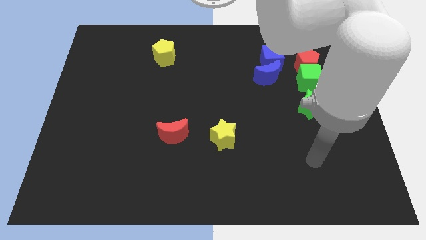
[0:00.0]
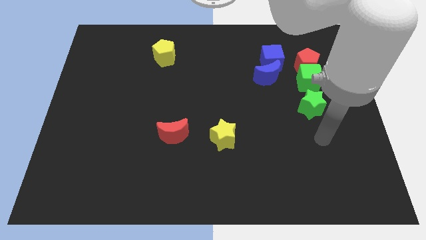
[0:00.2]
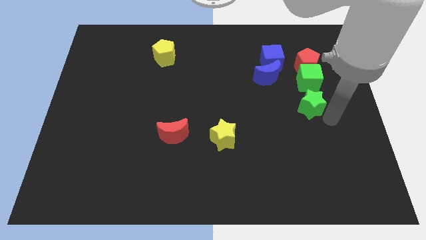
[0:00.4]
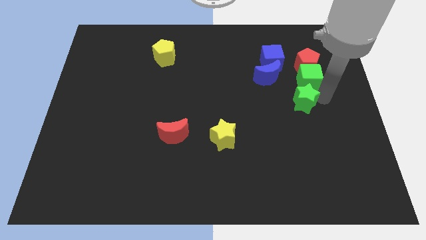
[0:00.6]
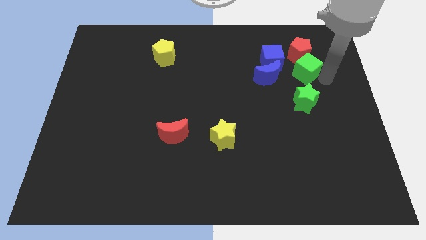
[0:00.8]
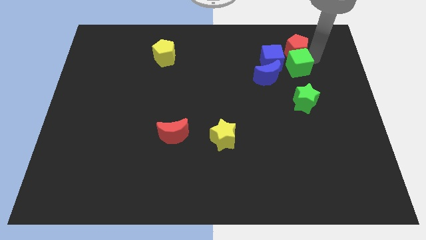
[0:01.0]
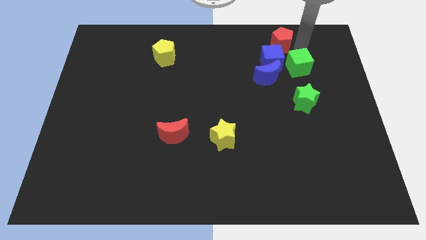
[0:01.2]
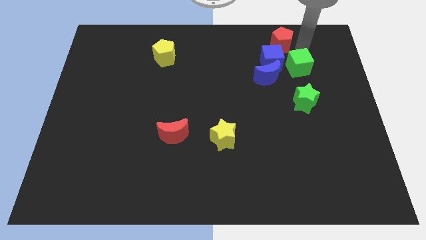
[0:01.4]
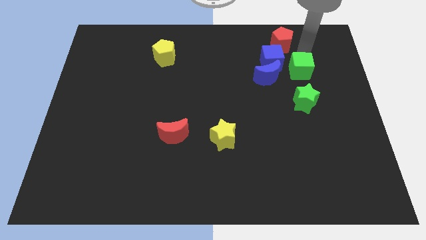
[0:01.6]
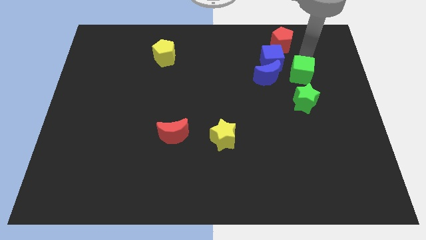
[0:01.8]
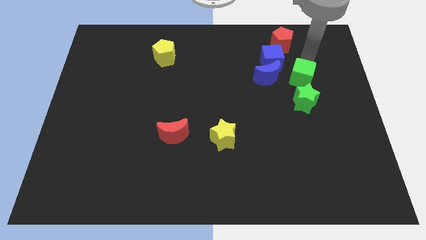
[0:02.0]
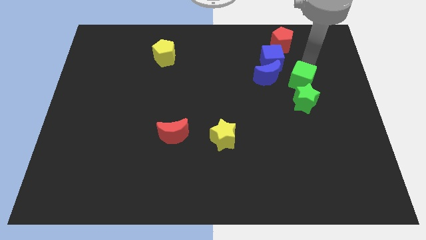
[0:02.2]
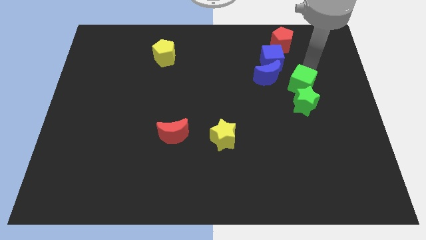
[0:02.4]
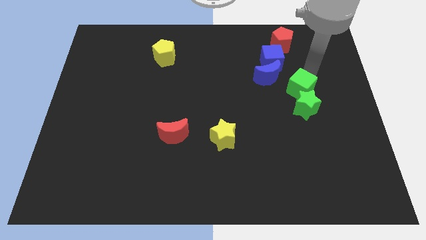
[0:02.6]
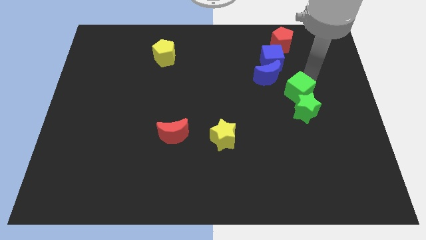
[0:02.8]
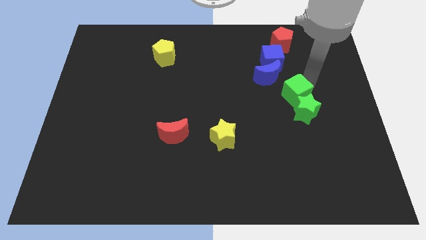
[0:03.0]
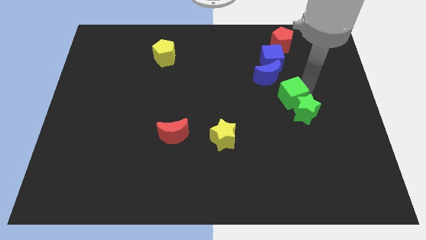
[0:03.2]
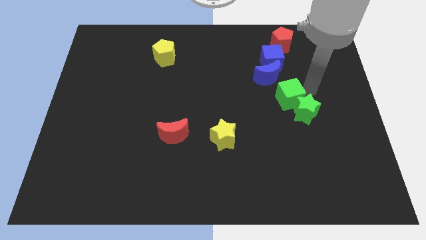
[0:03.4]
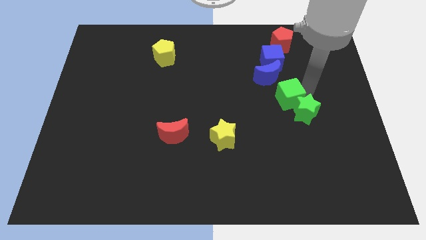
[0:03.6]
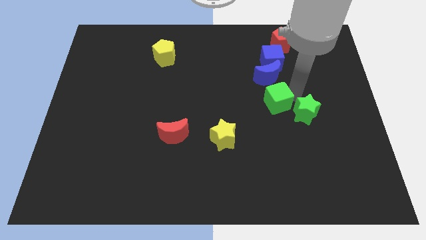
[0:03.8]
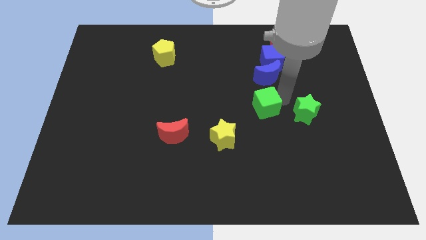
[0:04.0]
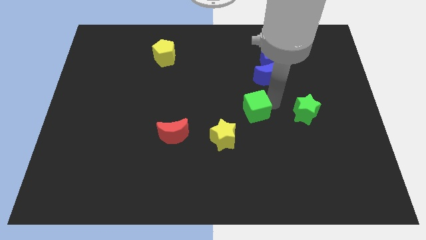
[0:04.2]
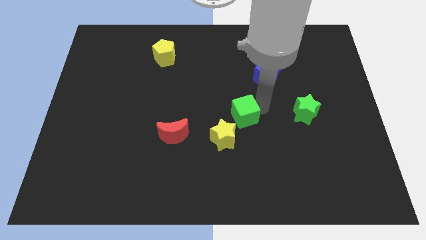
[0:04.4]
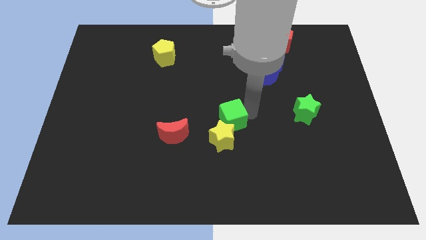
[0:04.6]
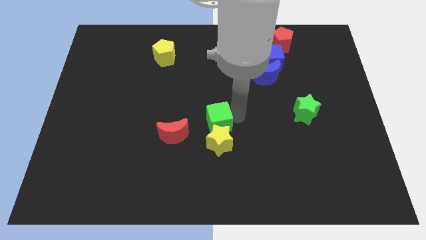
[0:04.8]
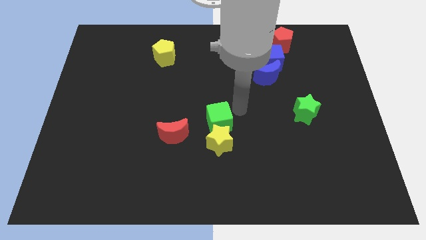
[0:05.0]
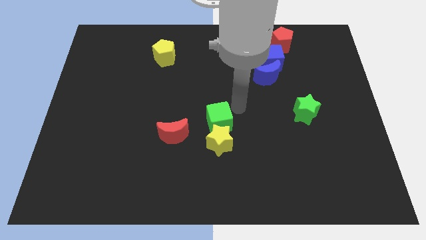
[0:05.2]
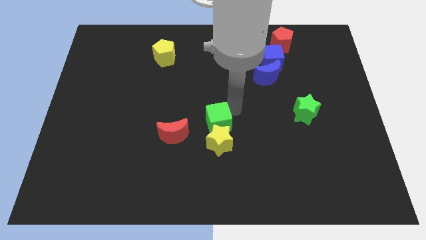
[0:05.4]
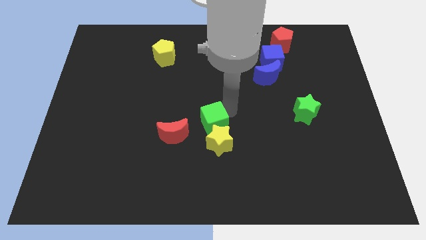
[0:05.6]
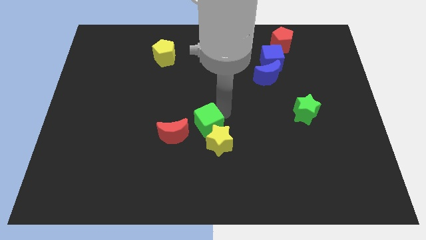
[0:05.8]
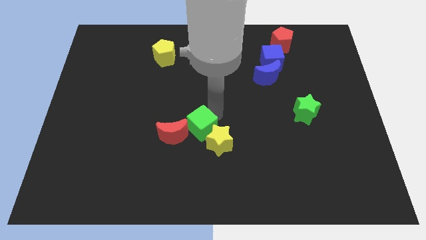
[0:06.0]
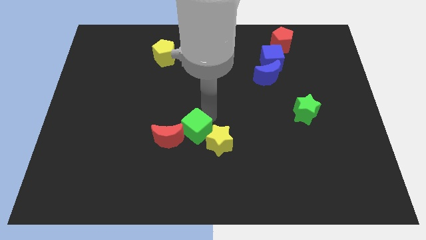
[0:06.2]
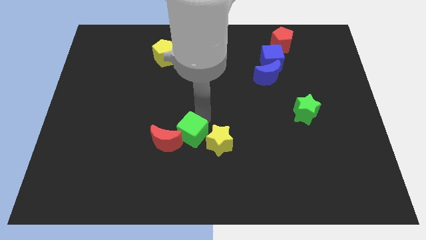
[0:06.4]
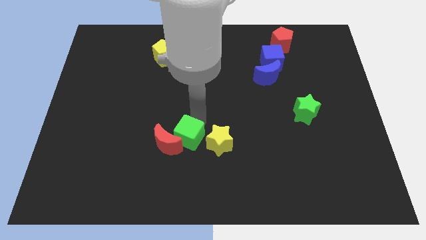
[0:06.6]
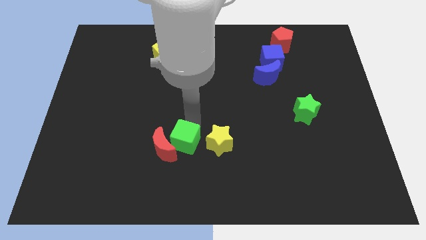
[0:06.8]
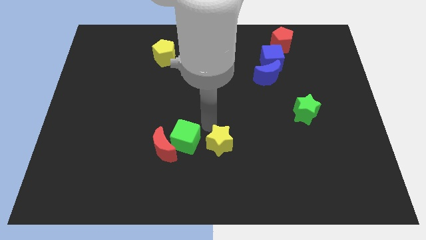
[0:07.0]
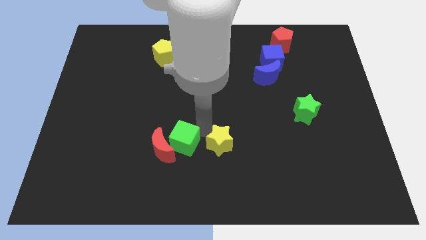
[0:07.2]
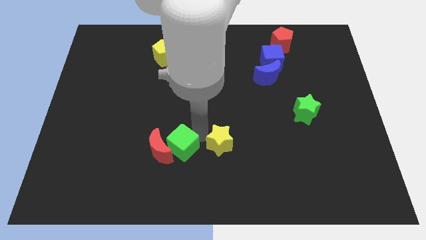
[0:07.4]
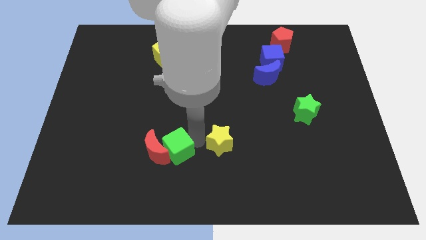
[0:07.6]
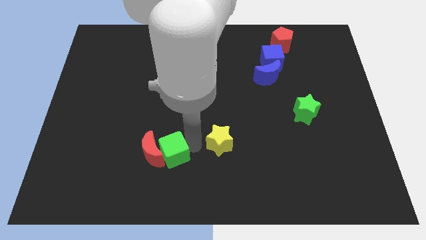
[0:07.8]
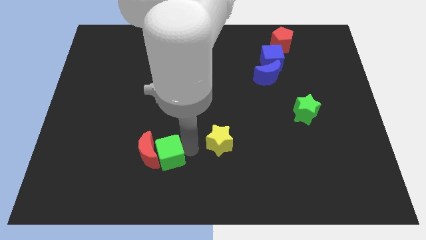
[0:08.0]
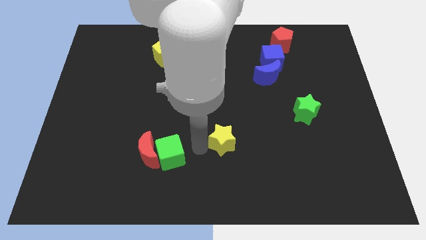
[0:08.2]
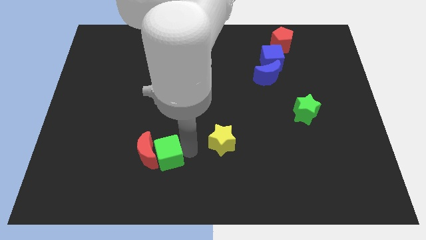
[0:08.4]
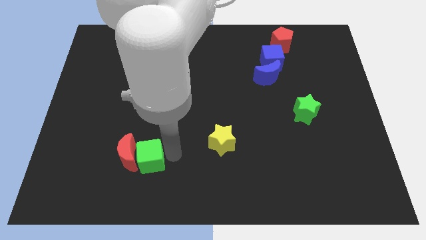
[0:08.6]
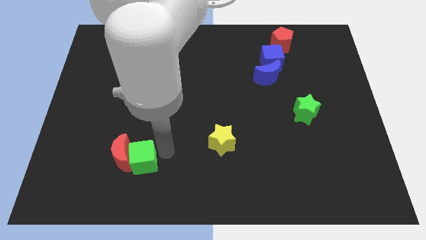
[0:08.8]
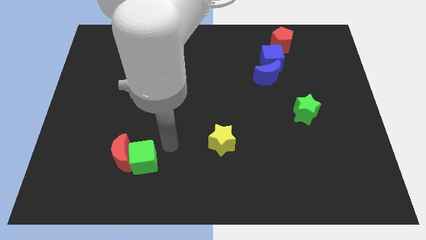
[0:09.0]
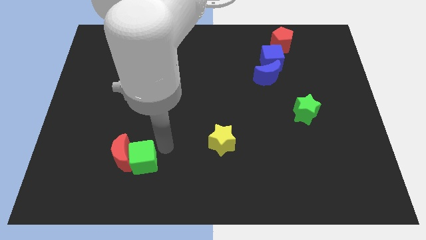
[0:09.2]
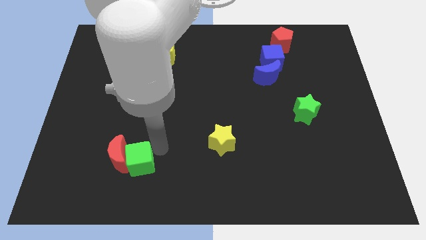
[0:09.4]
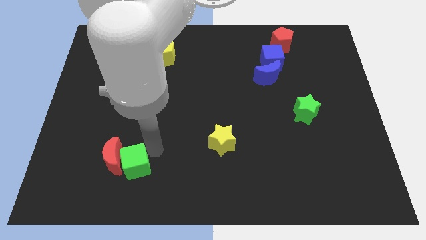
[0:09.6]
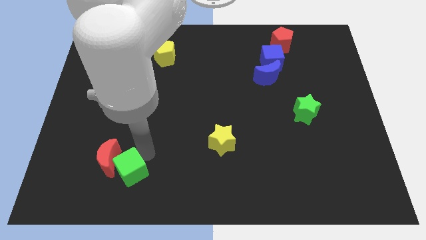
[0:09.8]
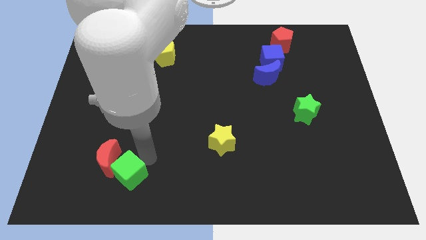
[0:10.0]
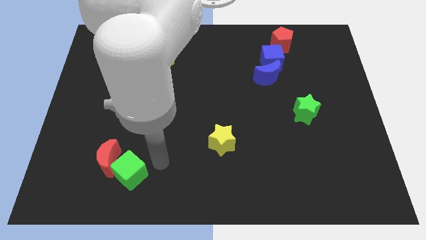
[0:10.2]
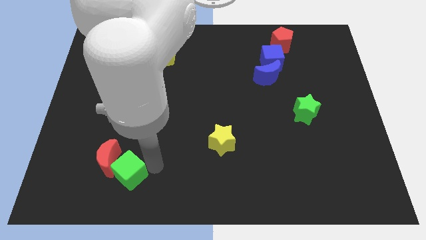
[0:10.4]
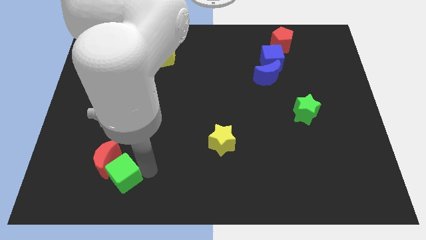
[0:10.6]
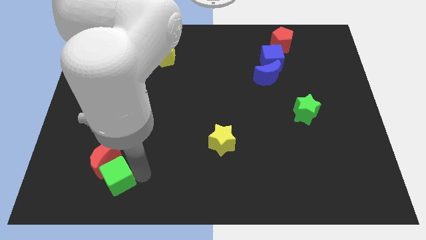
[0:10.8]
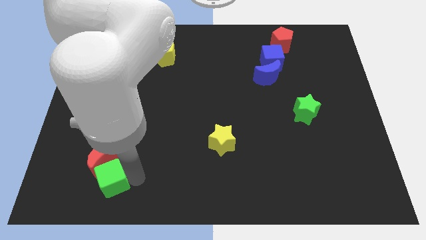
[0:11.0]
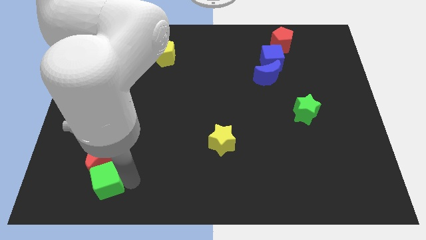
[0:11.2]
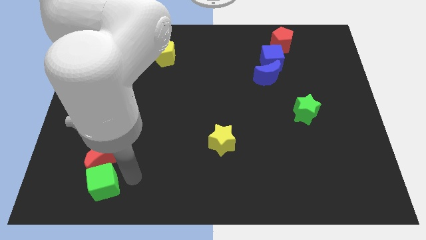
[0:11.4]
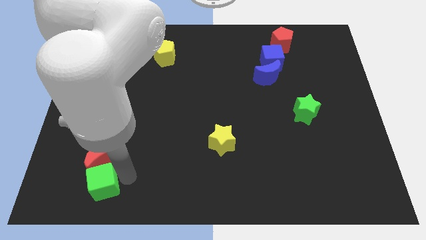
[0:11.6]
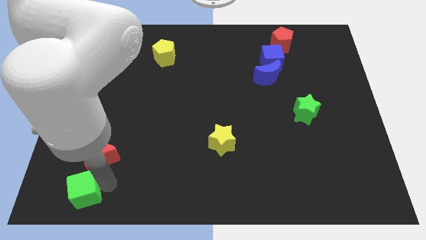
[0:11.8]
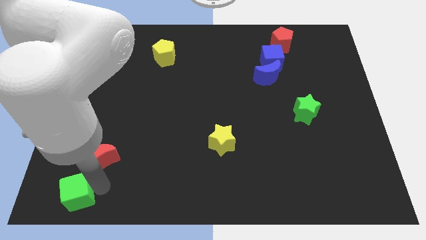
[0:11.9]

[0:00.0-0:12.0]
move the green cube to the bottom left

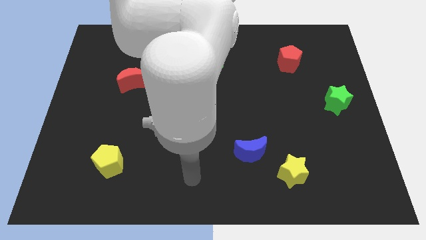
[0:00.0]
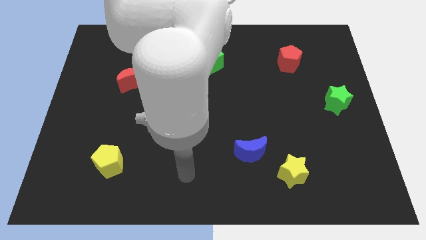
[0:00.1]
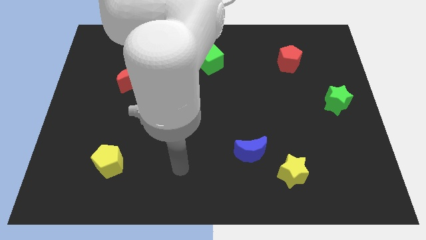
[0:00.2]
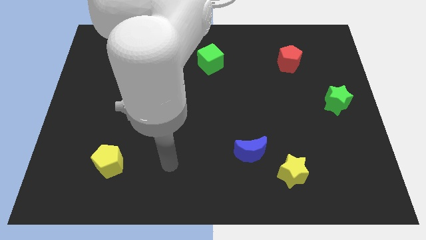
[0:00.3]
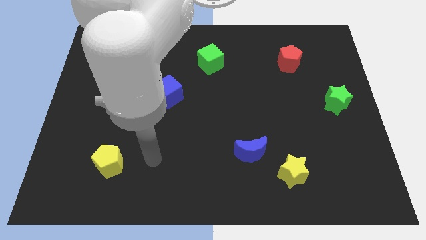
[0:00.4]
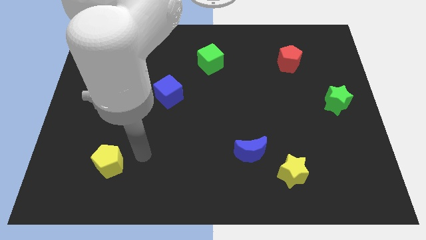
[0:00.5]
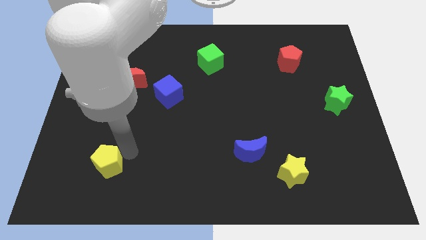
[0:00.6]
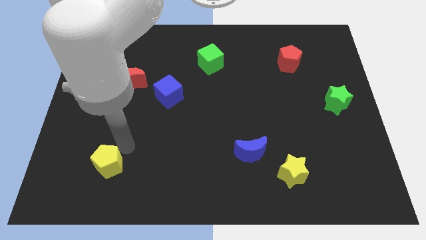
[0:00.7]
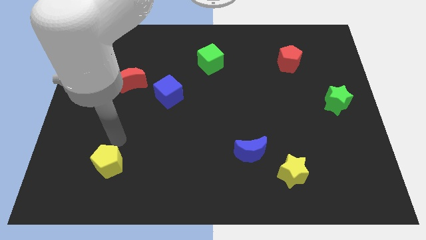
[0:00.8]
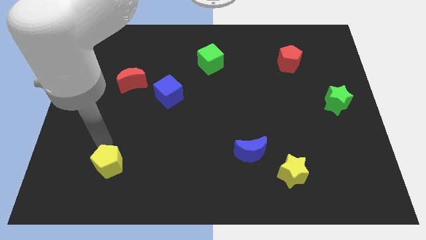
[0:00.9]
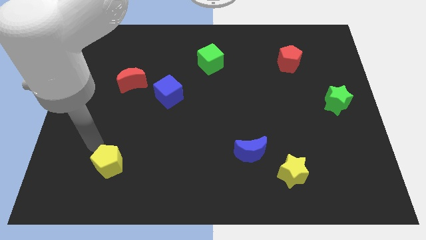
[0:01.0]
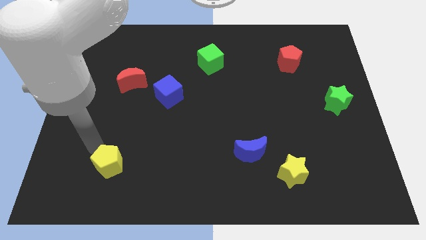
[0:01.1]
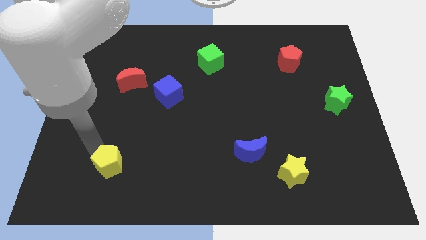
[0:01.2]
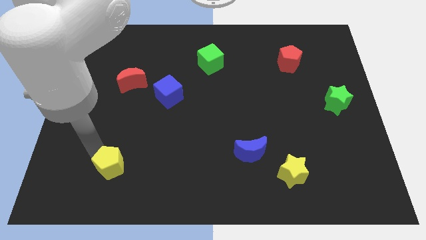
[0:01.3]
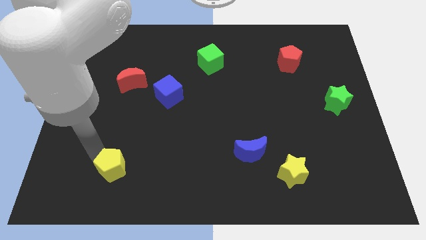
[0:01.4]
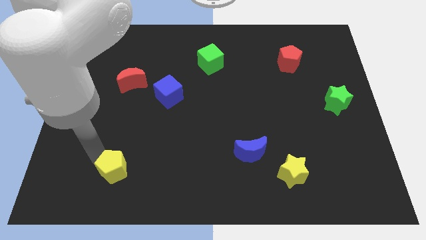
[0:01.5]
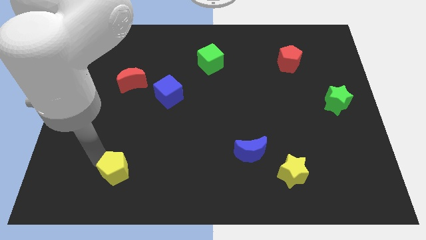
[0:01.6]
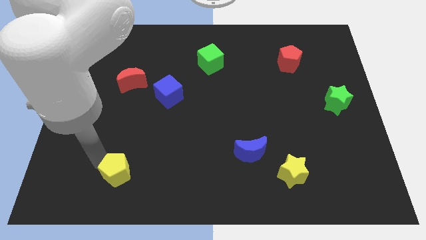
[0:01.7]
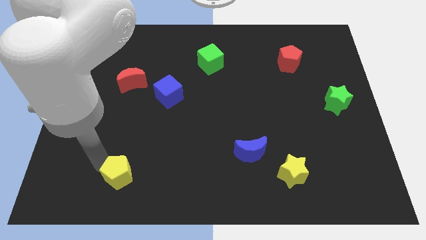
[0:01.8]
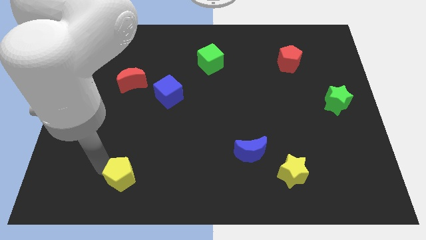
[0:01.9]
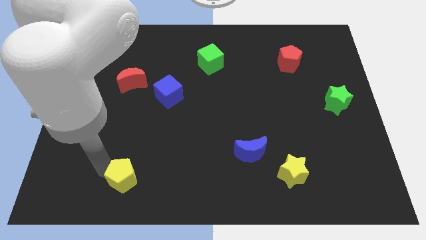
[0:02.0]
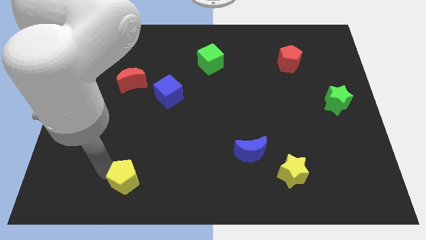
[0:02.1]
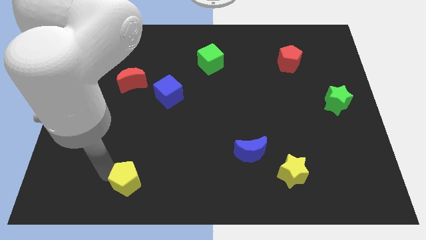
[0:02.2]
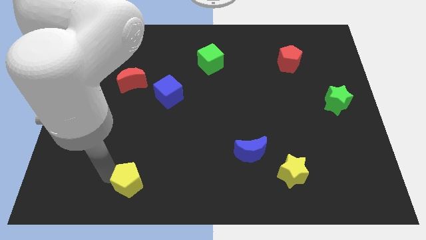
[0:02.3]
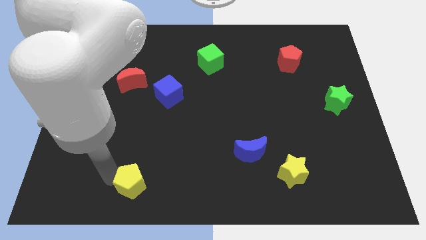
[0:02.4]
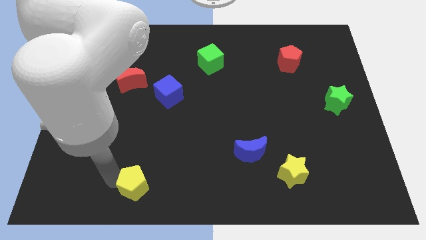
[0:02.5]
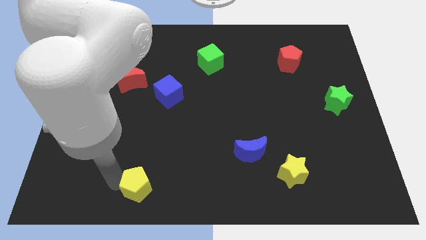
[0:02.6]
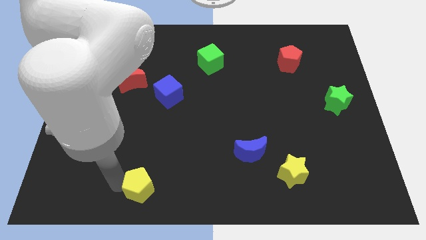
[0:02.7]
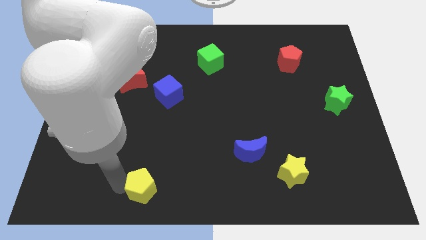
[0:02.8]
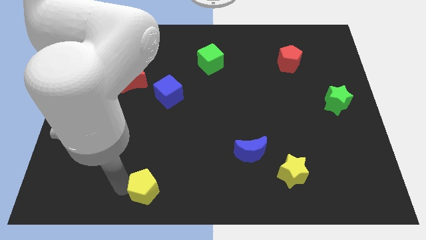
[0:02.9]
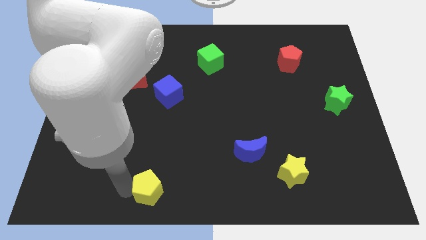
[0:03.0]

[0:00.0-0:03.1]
put the yellow pentagon to the bottom side
